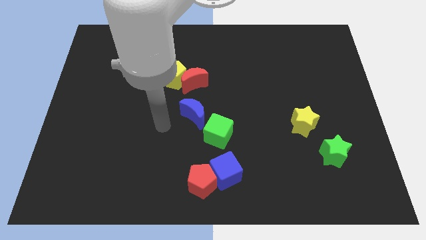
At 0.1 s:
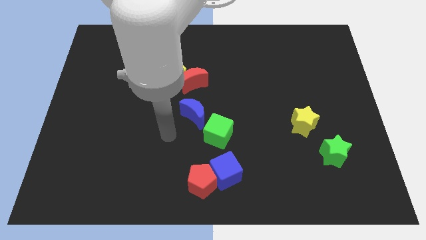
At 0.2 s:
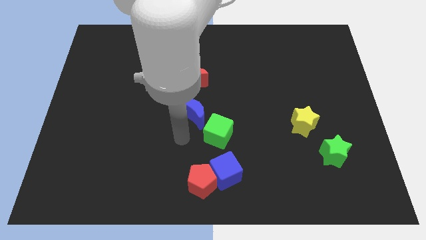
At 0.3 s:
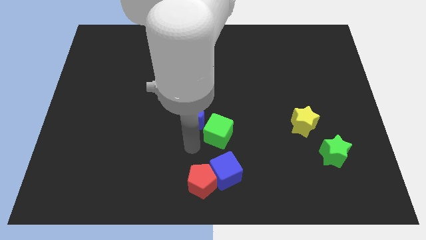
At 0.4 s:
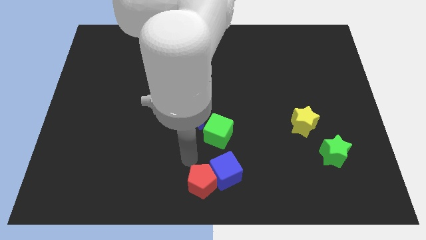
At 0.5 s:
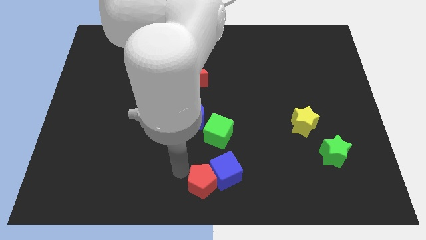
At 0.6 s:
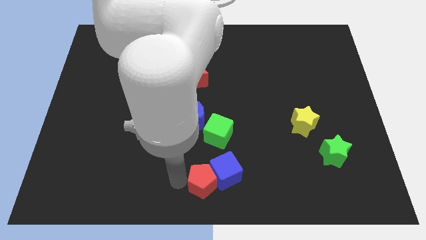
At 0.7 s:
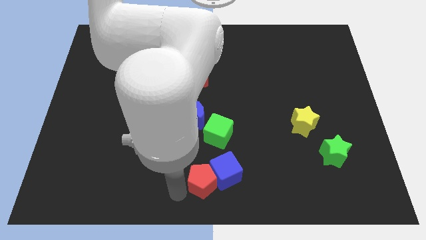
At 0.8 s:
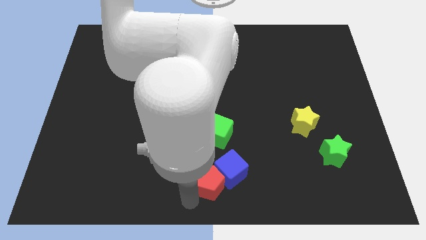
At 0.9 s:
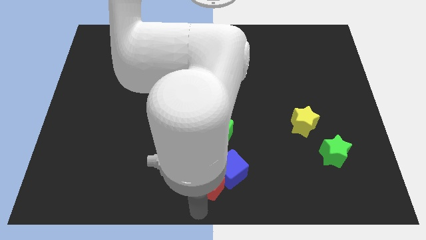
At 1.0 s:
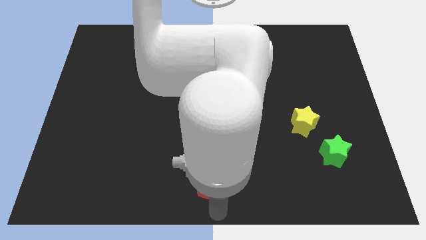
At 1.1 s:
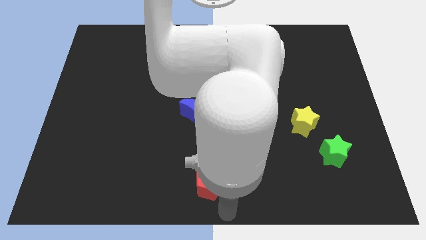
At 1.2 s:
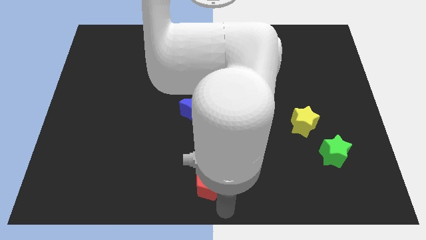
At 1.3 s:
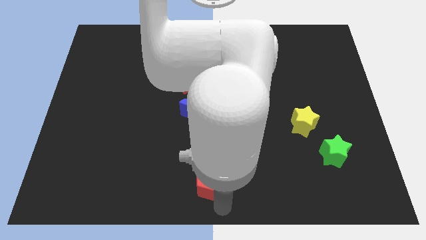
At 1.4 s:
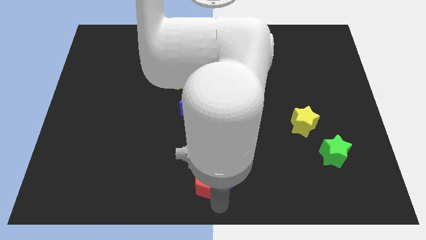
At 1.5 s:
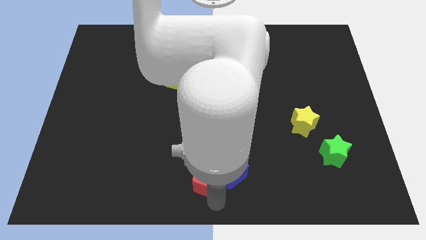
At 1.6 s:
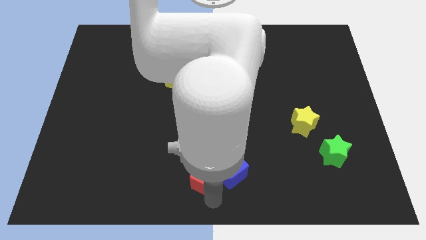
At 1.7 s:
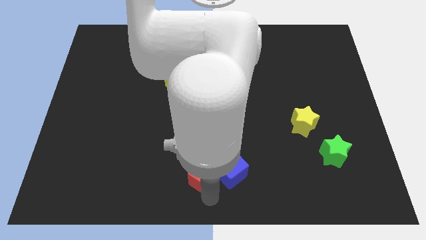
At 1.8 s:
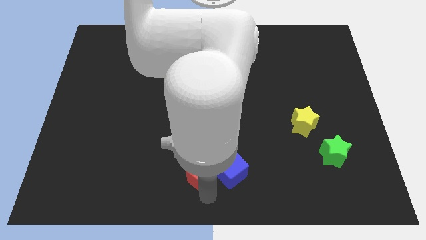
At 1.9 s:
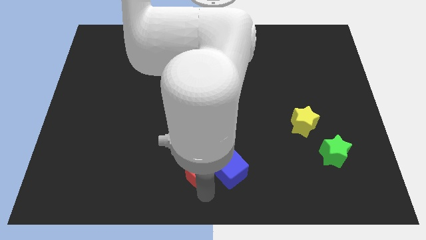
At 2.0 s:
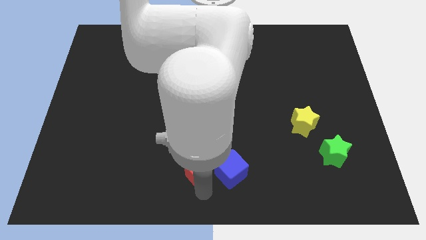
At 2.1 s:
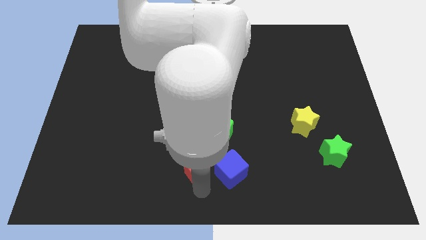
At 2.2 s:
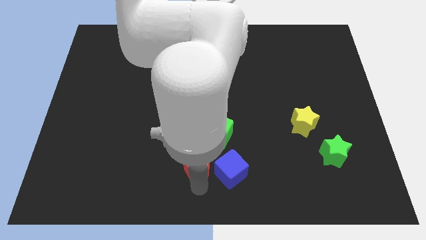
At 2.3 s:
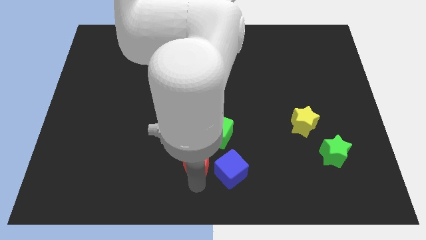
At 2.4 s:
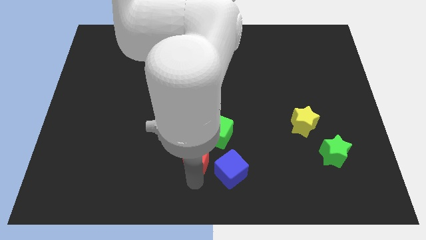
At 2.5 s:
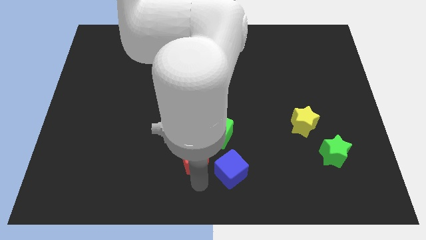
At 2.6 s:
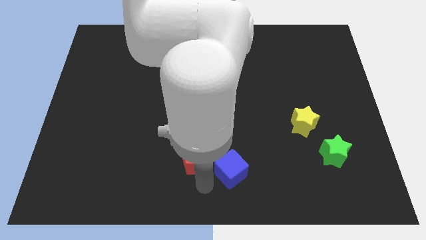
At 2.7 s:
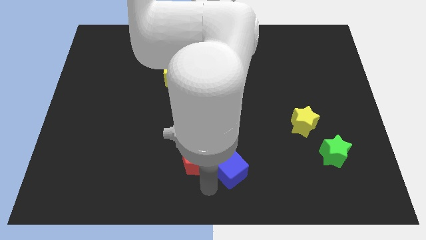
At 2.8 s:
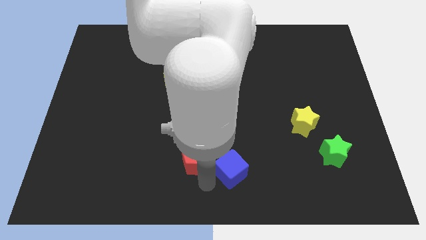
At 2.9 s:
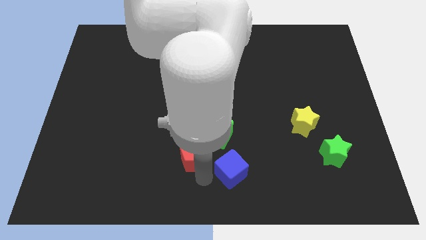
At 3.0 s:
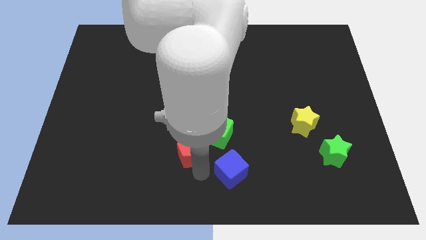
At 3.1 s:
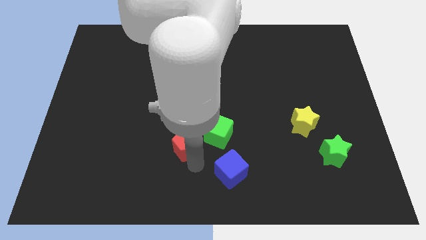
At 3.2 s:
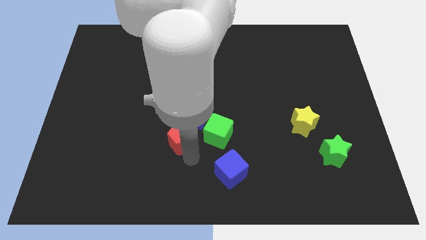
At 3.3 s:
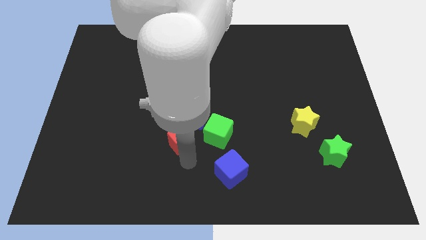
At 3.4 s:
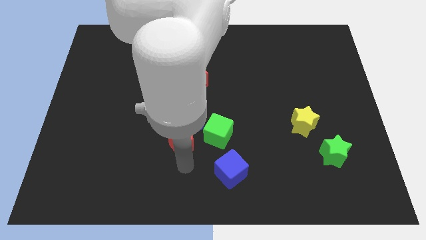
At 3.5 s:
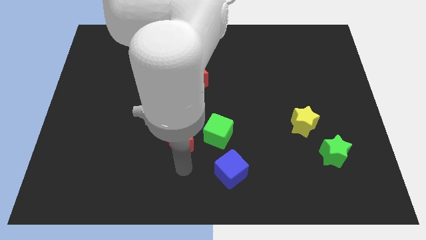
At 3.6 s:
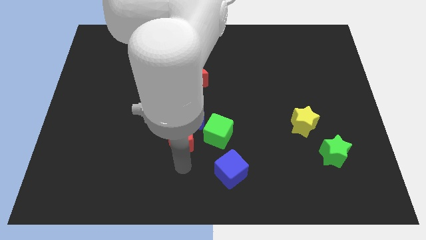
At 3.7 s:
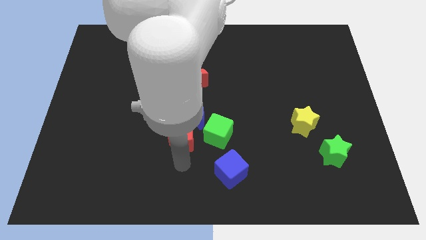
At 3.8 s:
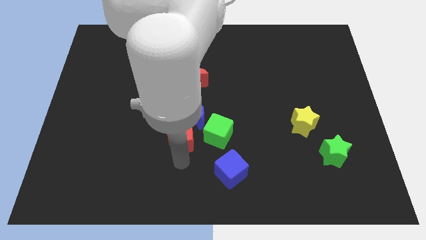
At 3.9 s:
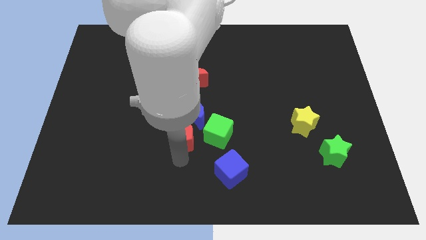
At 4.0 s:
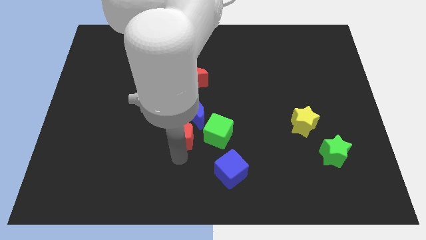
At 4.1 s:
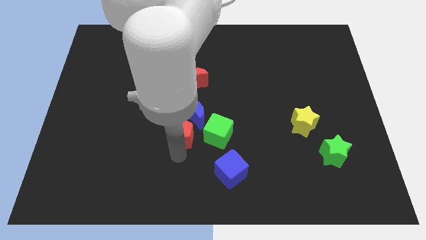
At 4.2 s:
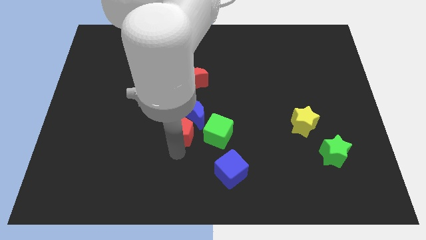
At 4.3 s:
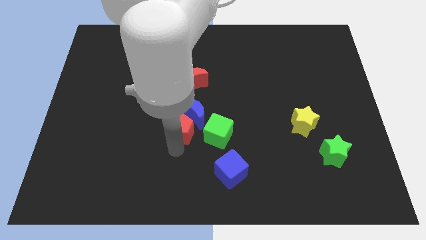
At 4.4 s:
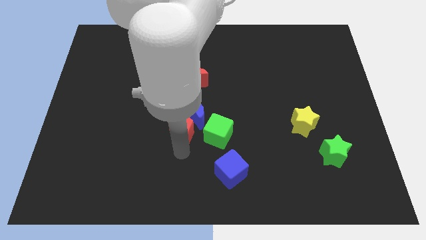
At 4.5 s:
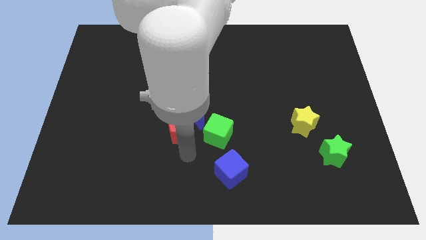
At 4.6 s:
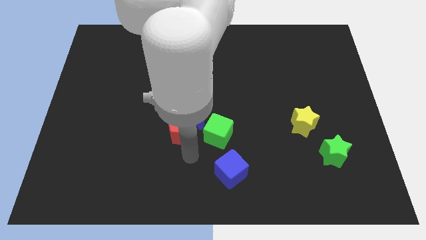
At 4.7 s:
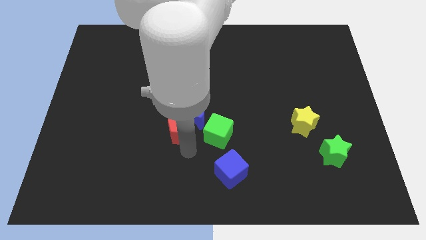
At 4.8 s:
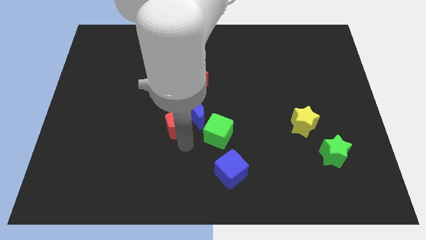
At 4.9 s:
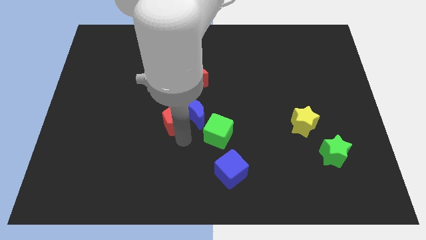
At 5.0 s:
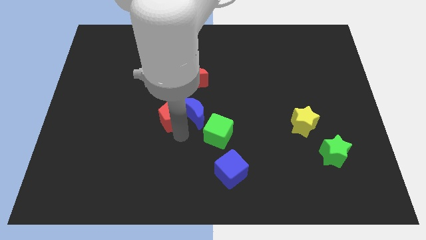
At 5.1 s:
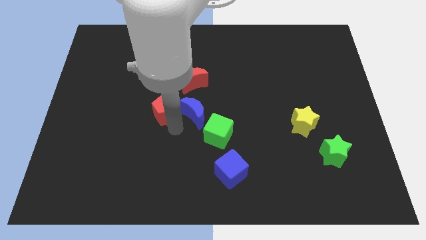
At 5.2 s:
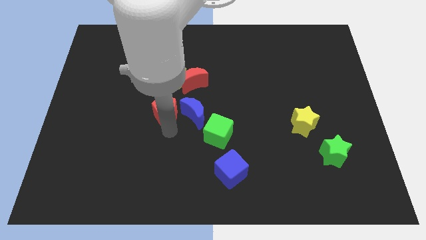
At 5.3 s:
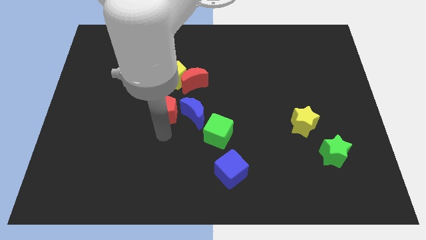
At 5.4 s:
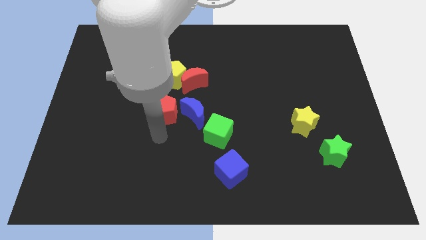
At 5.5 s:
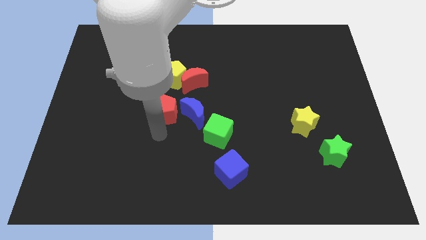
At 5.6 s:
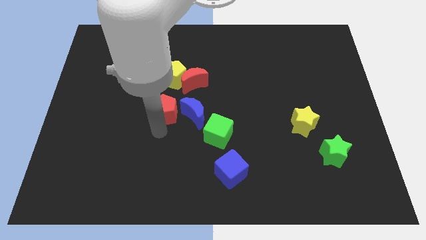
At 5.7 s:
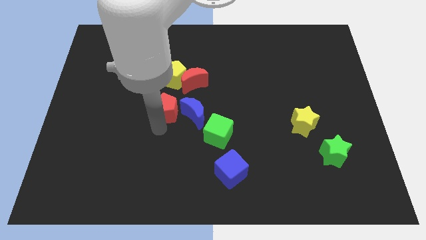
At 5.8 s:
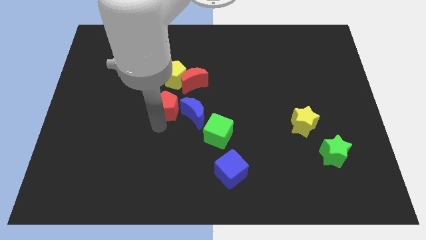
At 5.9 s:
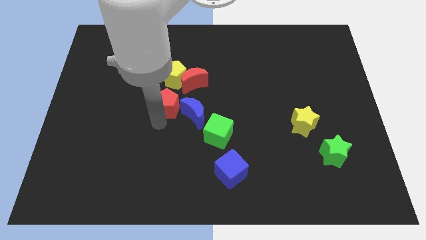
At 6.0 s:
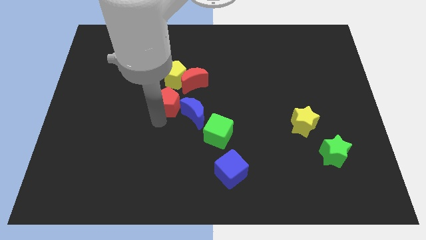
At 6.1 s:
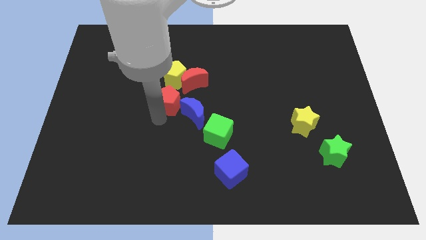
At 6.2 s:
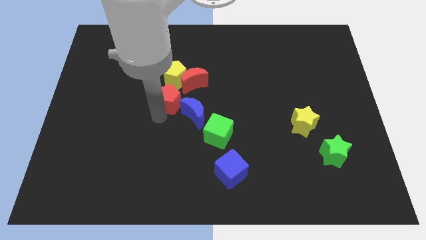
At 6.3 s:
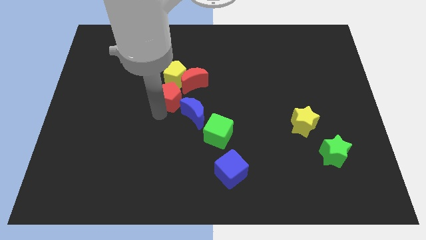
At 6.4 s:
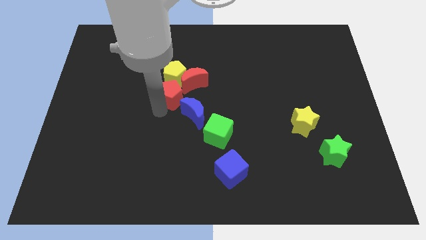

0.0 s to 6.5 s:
slide the red pentagon to the yellow pentagon

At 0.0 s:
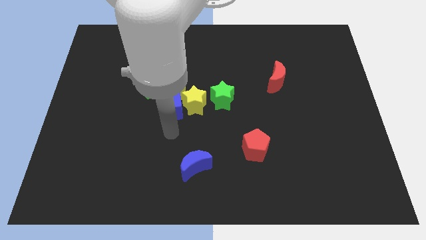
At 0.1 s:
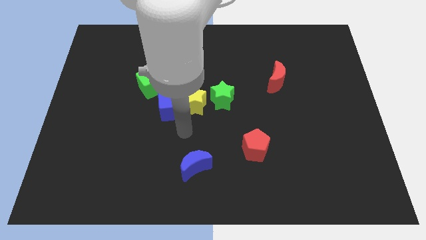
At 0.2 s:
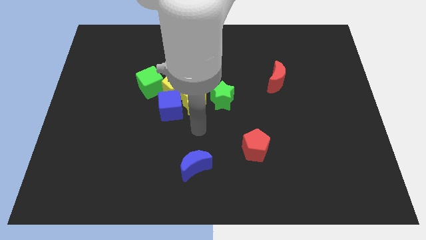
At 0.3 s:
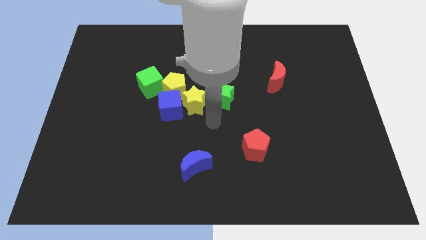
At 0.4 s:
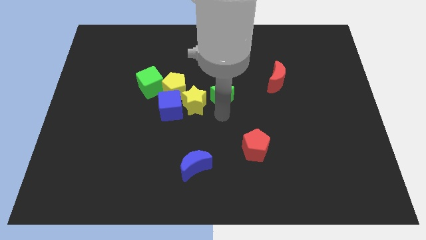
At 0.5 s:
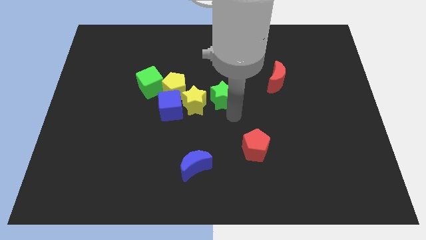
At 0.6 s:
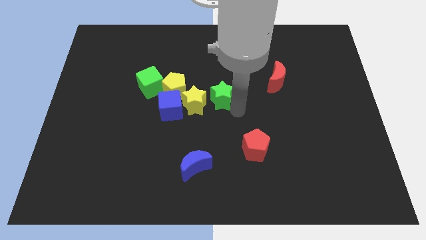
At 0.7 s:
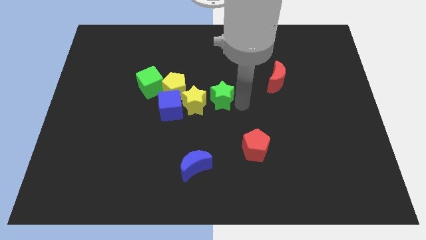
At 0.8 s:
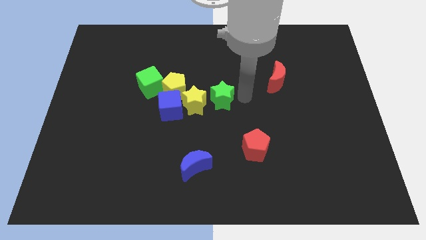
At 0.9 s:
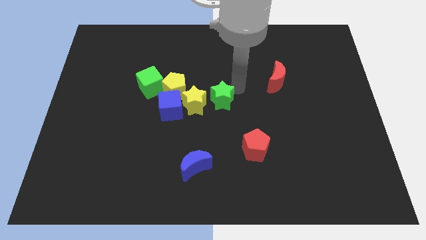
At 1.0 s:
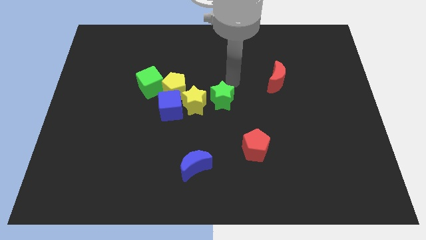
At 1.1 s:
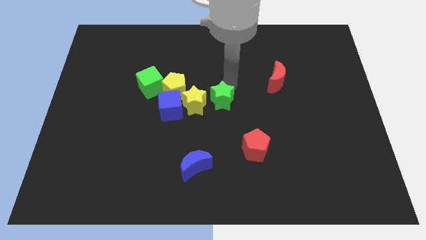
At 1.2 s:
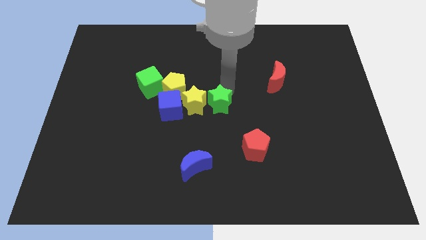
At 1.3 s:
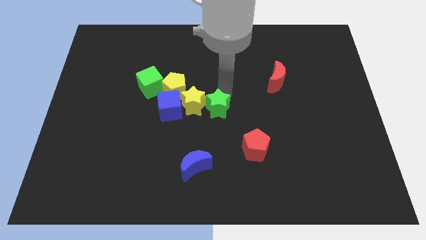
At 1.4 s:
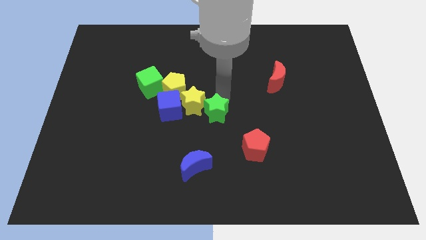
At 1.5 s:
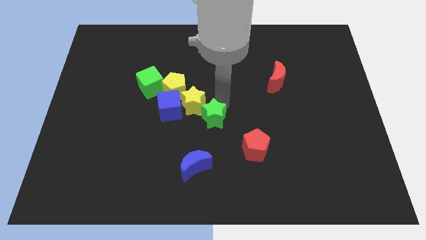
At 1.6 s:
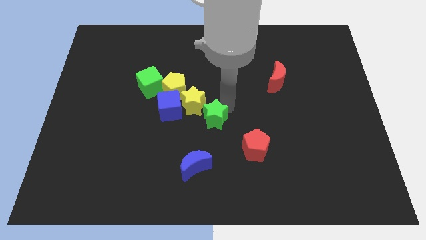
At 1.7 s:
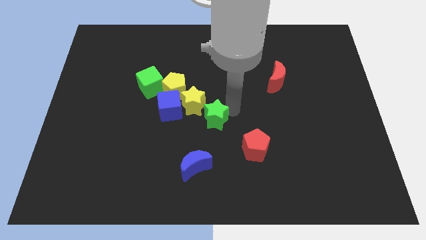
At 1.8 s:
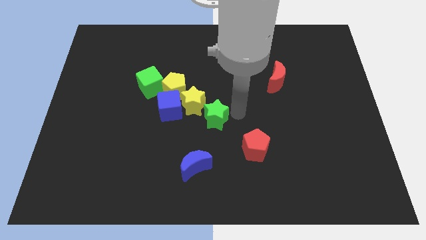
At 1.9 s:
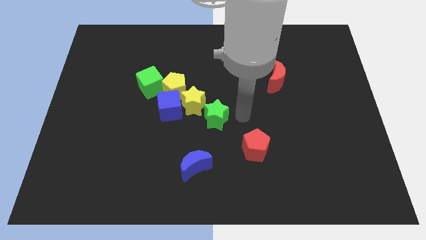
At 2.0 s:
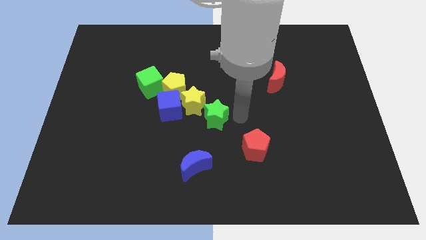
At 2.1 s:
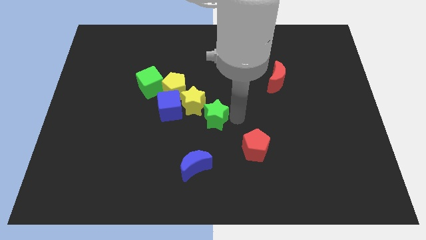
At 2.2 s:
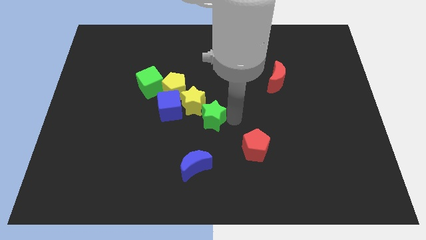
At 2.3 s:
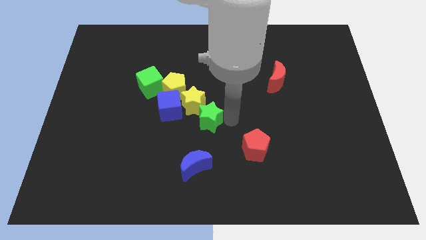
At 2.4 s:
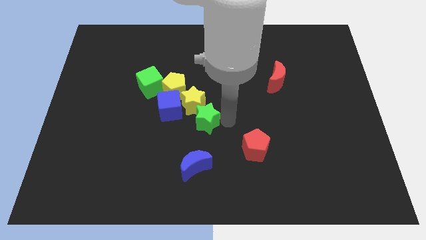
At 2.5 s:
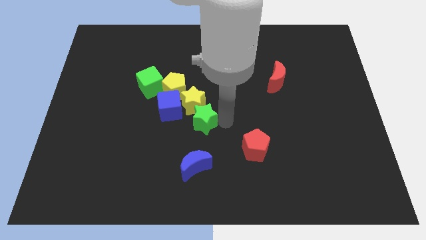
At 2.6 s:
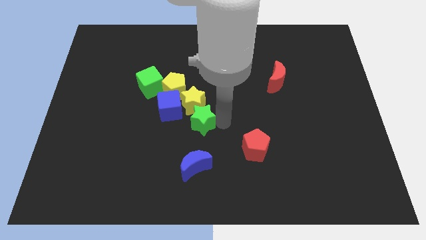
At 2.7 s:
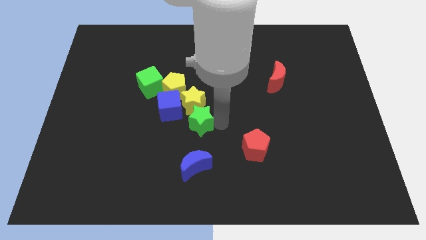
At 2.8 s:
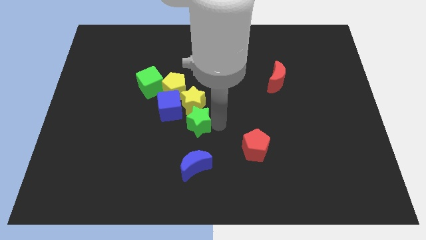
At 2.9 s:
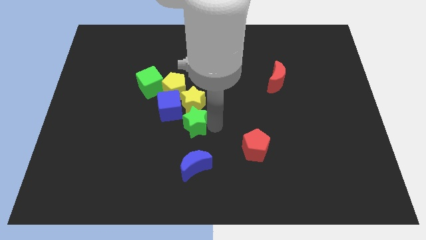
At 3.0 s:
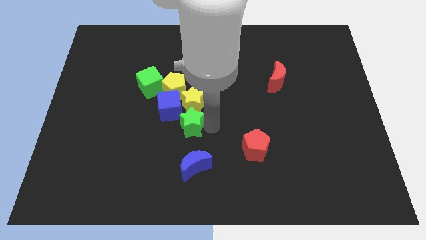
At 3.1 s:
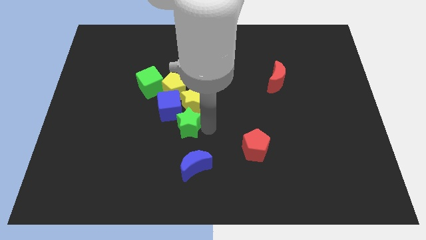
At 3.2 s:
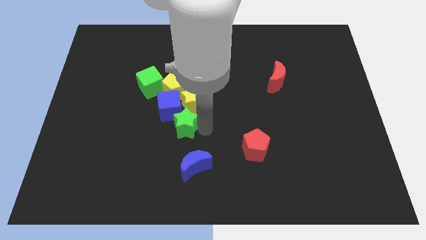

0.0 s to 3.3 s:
push the green star next to the blue cube
